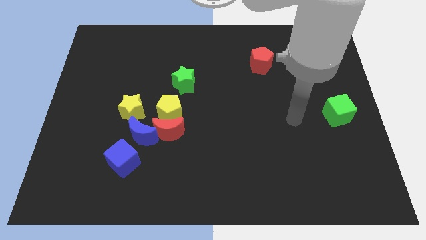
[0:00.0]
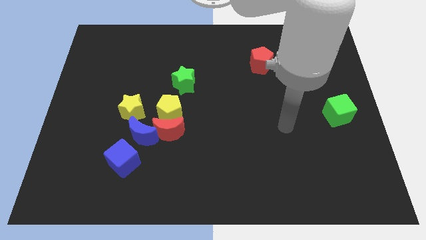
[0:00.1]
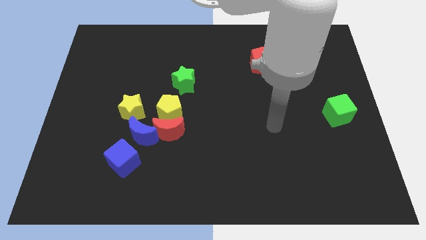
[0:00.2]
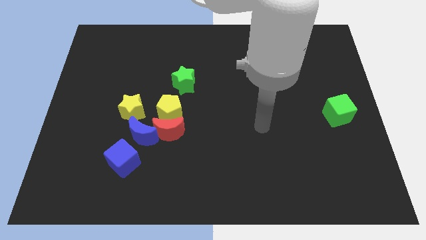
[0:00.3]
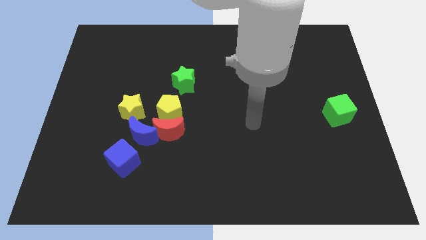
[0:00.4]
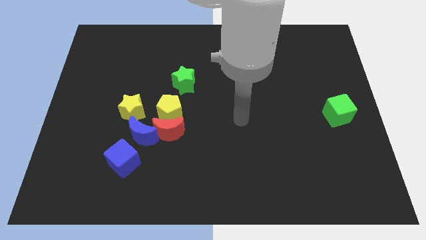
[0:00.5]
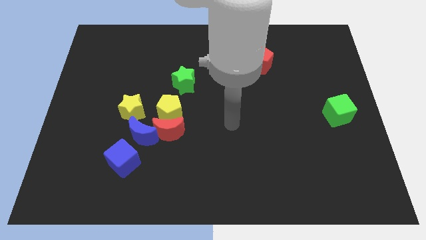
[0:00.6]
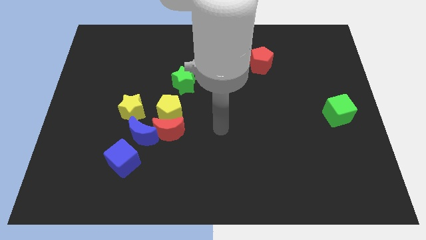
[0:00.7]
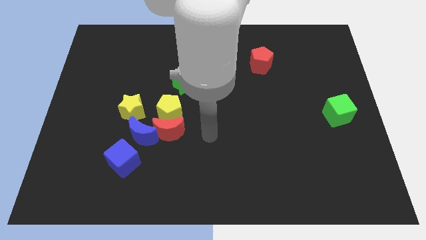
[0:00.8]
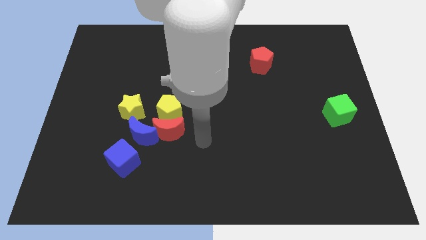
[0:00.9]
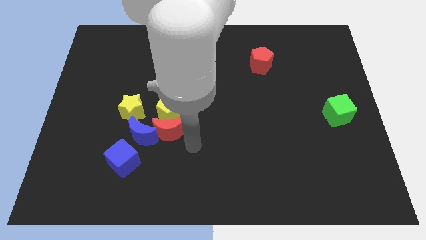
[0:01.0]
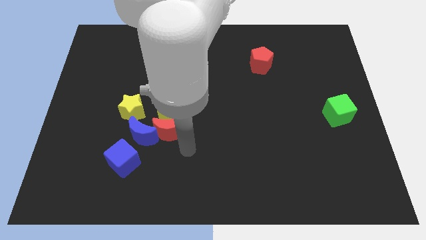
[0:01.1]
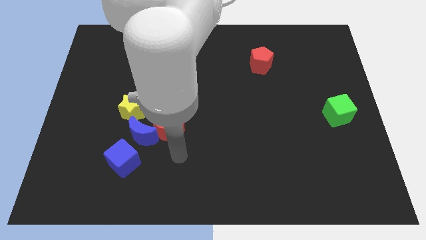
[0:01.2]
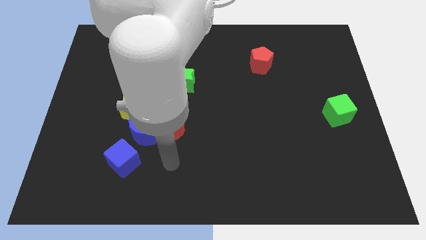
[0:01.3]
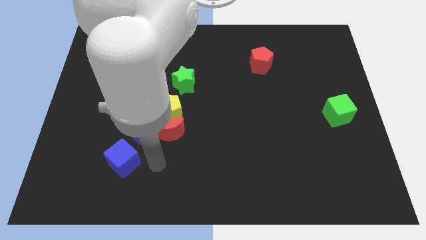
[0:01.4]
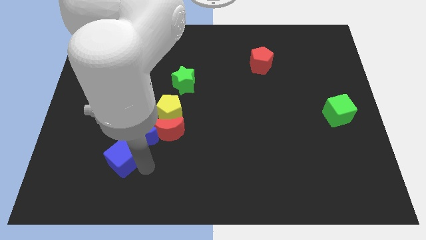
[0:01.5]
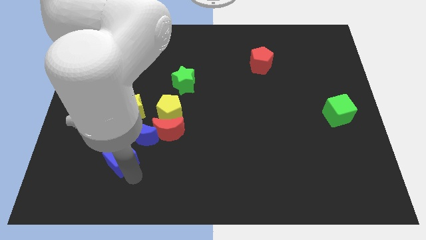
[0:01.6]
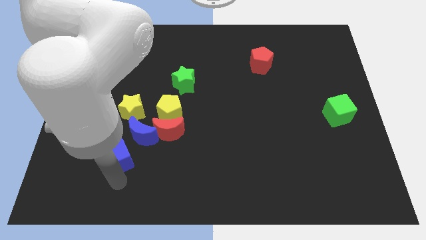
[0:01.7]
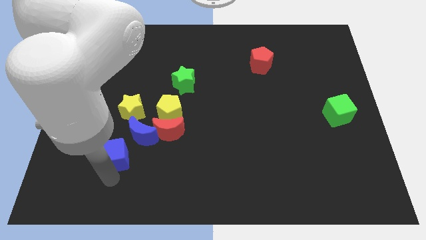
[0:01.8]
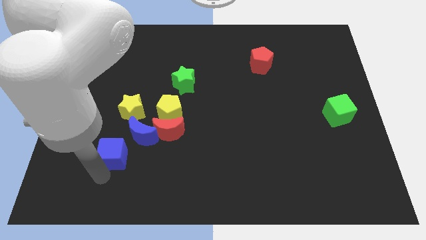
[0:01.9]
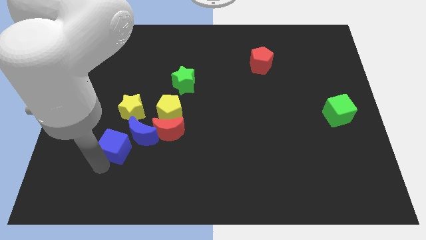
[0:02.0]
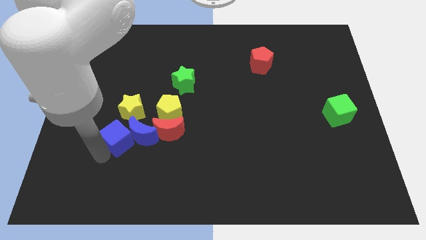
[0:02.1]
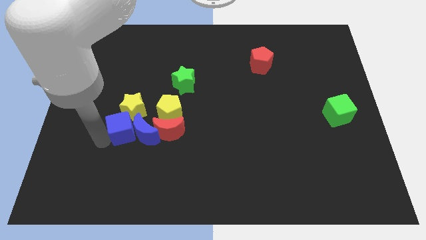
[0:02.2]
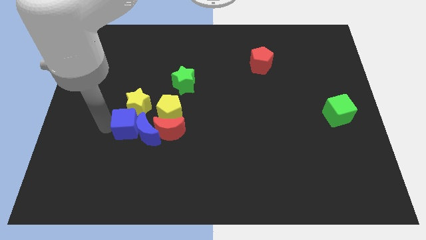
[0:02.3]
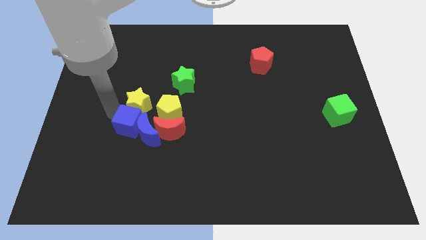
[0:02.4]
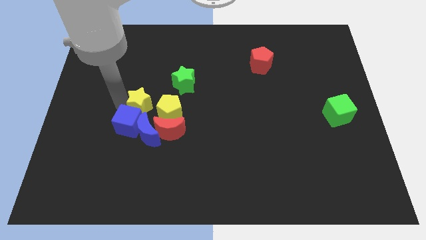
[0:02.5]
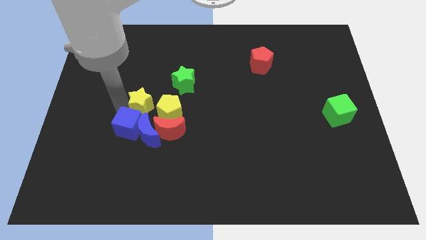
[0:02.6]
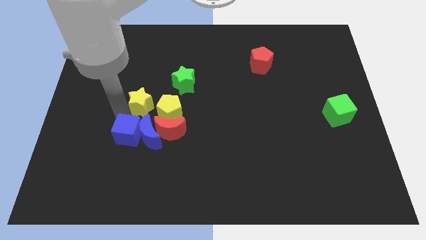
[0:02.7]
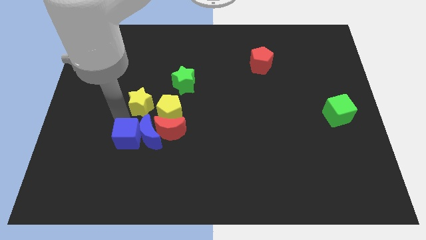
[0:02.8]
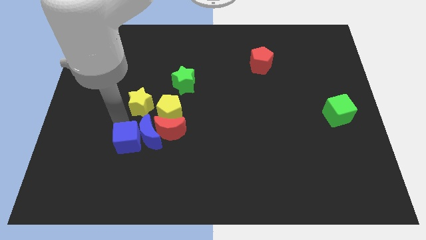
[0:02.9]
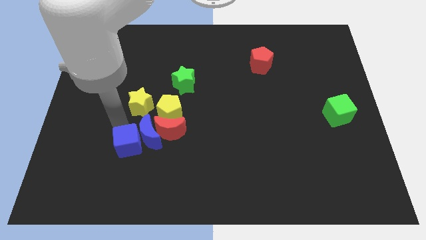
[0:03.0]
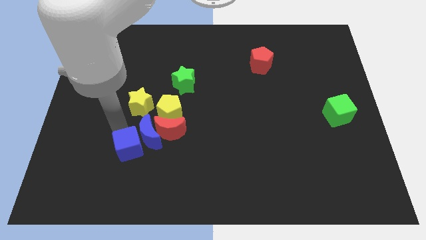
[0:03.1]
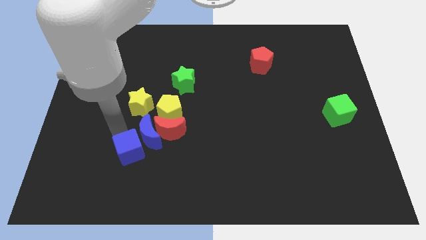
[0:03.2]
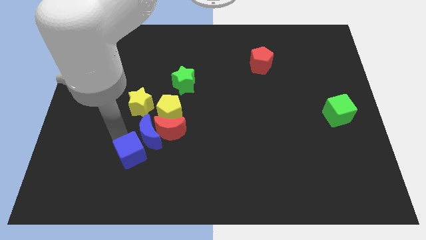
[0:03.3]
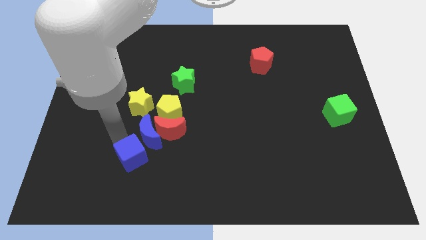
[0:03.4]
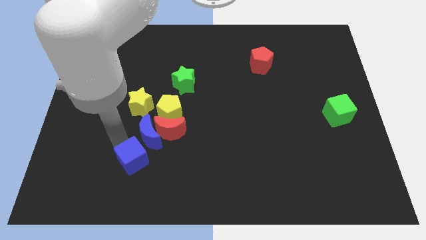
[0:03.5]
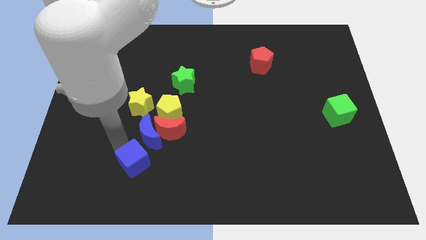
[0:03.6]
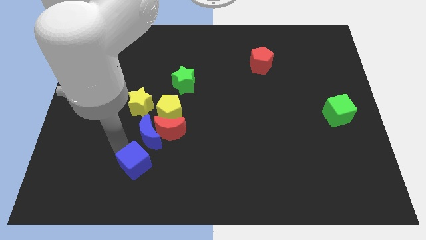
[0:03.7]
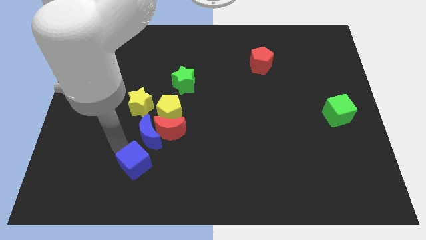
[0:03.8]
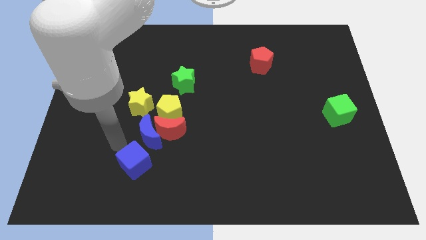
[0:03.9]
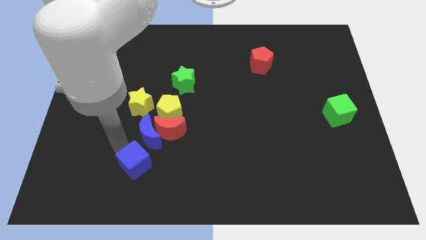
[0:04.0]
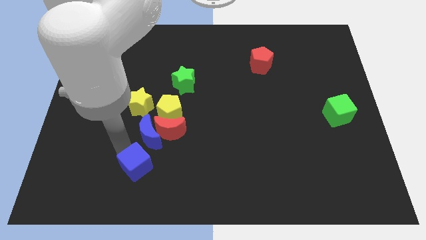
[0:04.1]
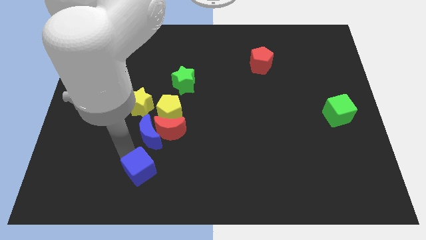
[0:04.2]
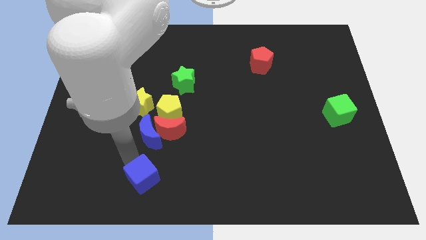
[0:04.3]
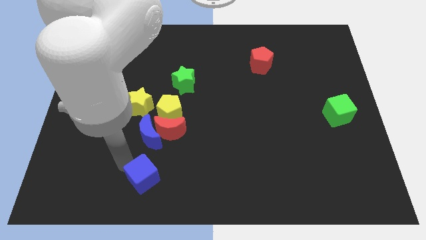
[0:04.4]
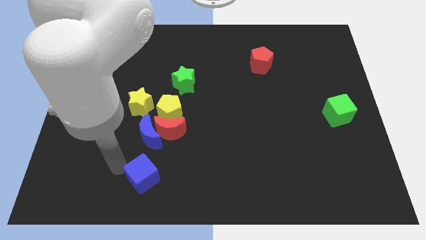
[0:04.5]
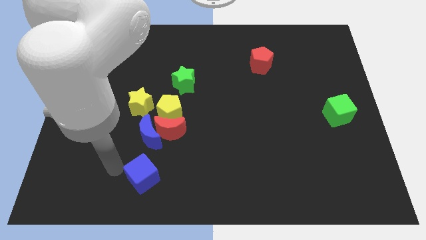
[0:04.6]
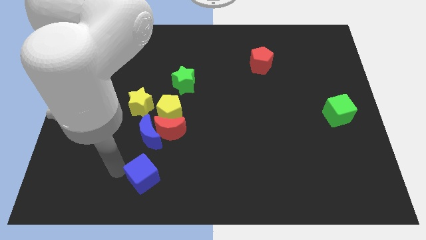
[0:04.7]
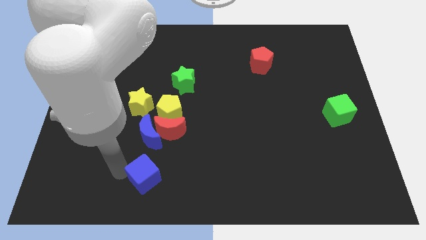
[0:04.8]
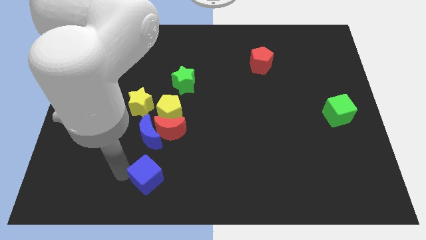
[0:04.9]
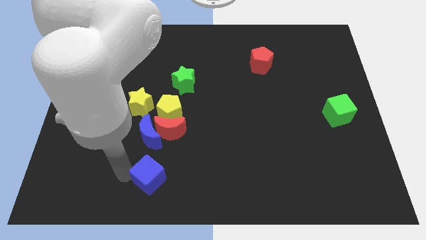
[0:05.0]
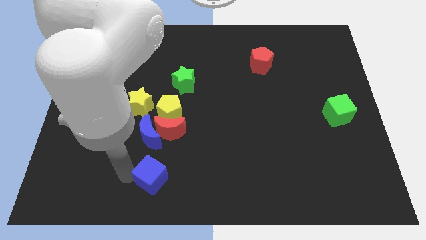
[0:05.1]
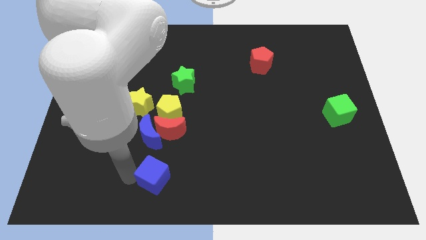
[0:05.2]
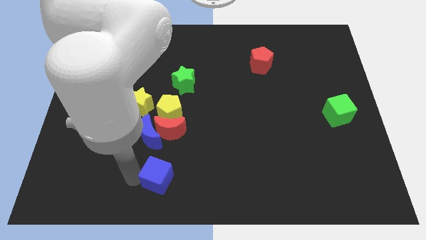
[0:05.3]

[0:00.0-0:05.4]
slide the blue cube to the bottom

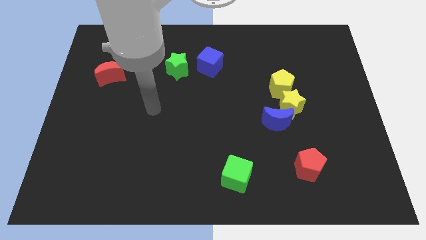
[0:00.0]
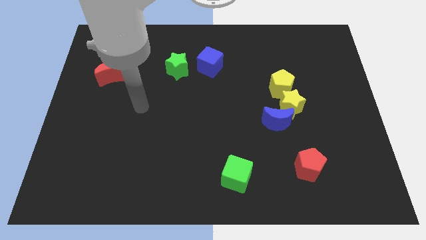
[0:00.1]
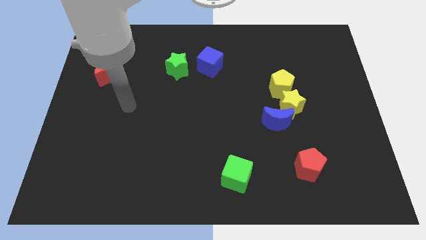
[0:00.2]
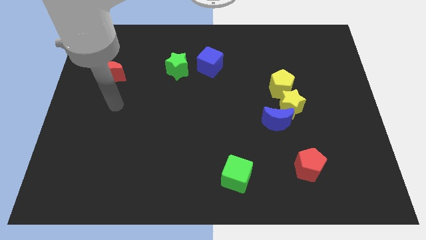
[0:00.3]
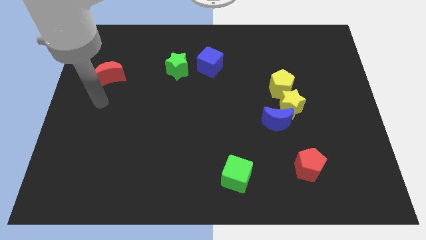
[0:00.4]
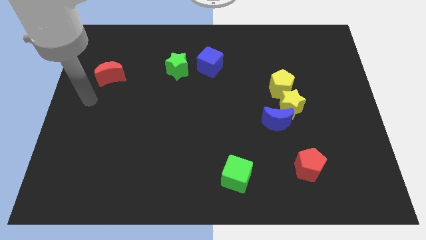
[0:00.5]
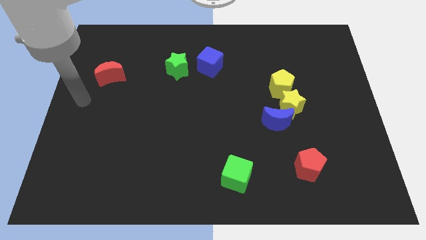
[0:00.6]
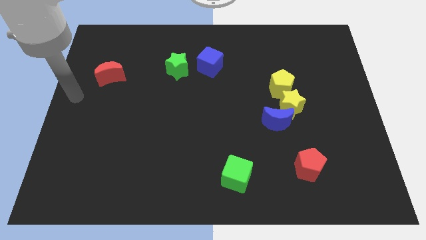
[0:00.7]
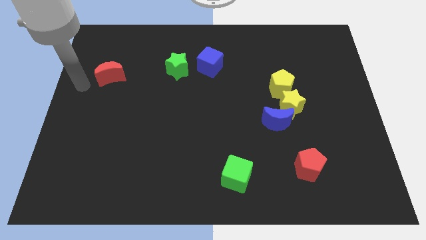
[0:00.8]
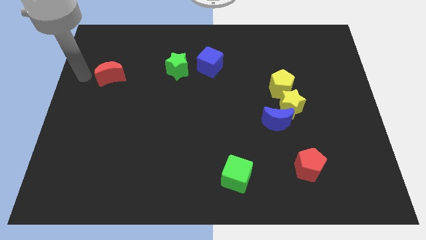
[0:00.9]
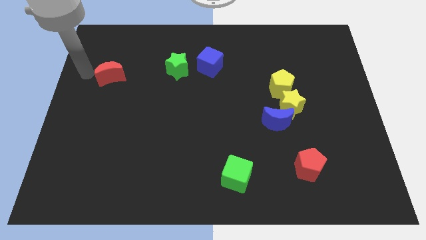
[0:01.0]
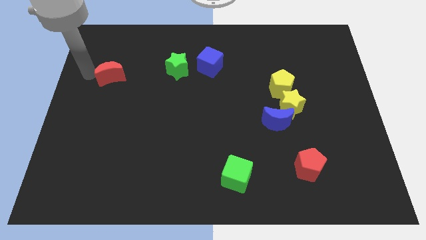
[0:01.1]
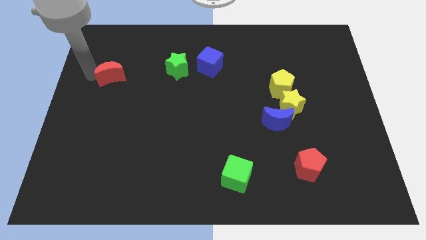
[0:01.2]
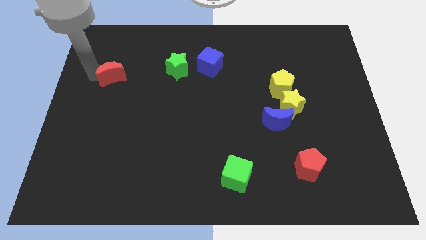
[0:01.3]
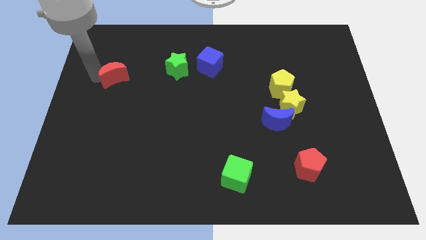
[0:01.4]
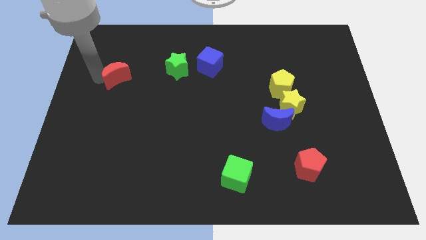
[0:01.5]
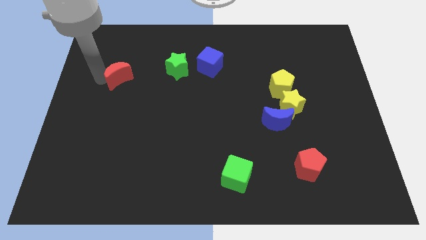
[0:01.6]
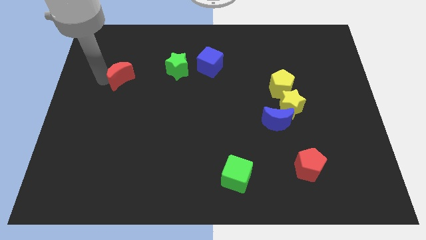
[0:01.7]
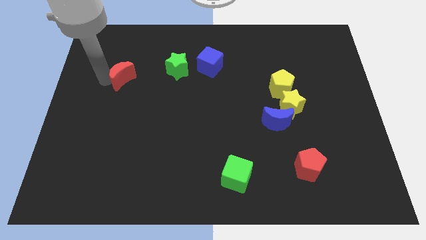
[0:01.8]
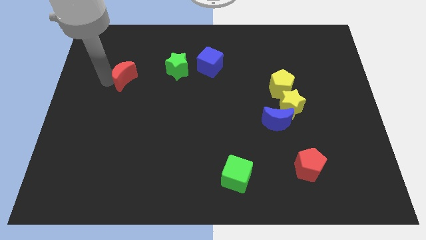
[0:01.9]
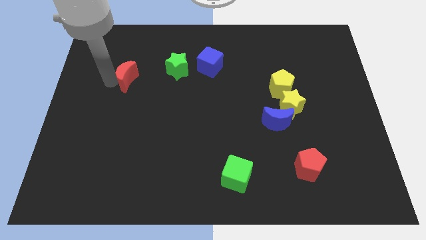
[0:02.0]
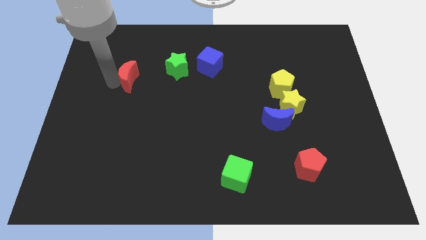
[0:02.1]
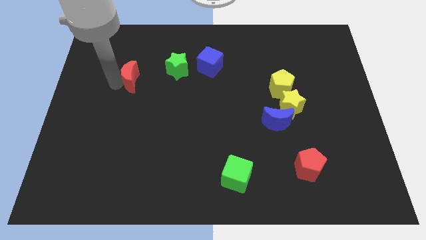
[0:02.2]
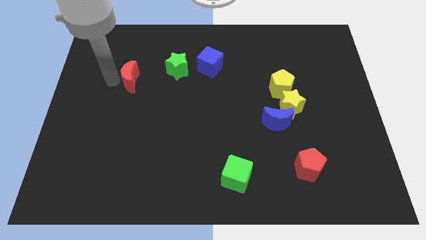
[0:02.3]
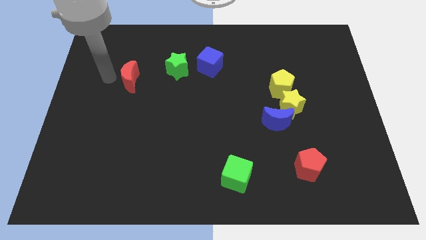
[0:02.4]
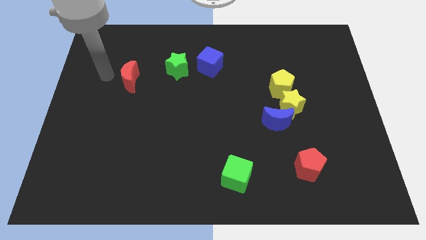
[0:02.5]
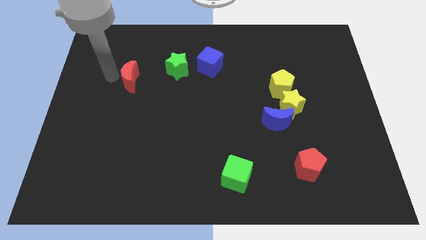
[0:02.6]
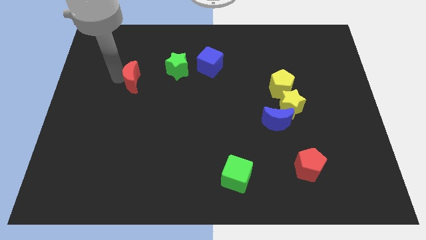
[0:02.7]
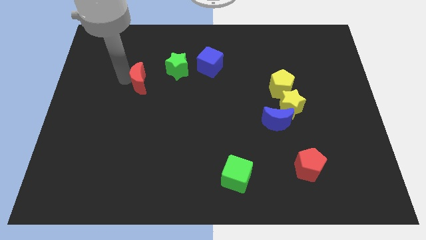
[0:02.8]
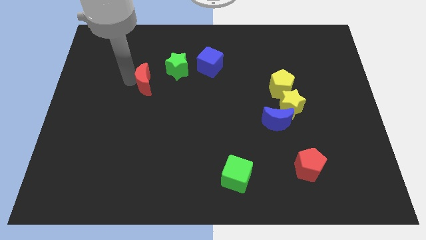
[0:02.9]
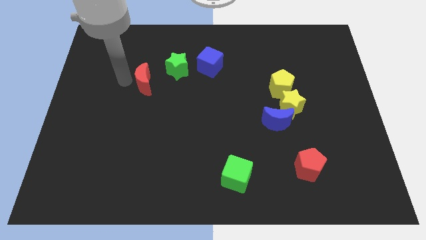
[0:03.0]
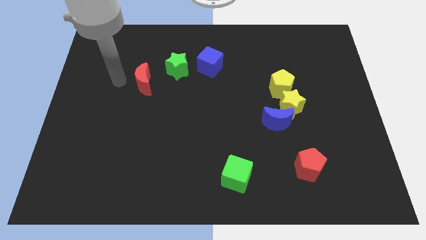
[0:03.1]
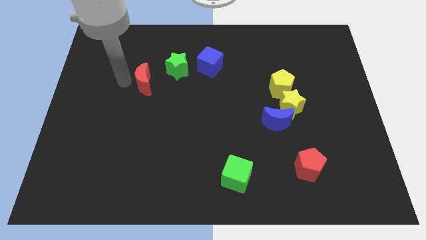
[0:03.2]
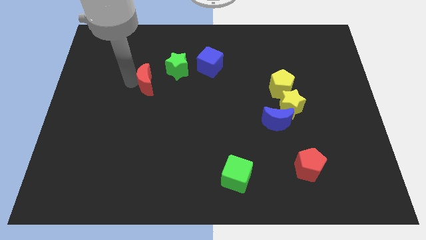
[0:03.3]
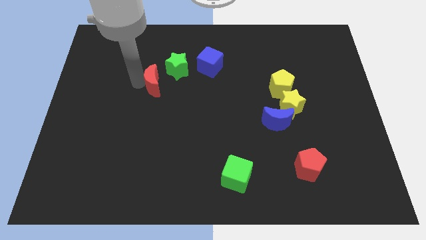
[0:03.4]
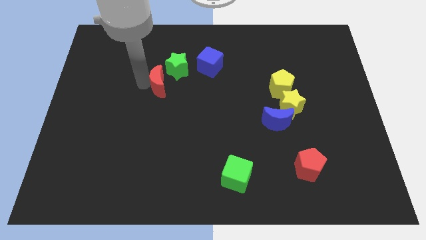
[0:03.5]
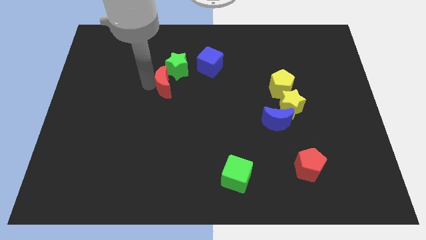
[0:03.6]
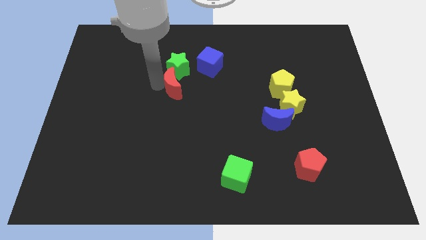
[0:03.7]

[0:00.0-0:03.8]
put the red moon to the middle of the board
